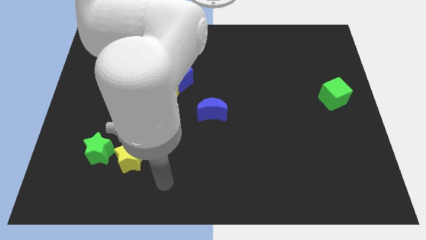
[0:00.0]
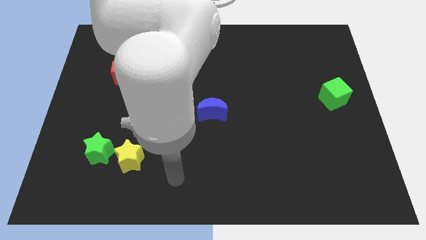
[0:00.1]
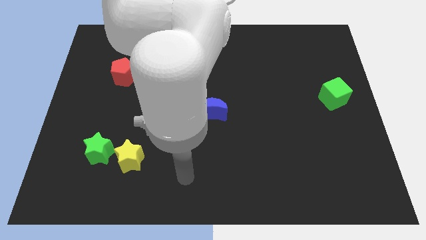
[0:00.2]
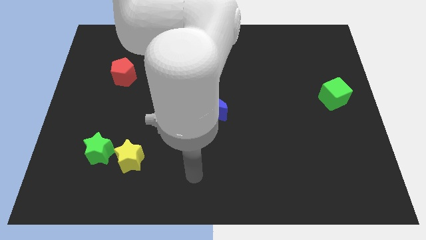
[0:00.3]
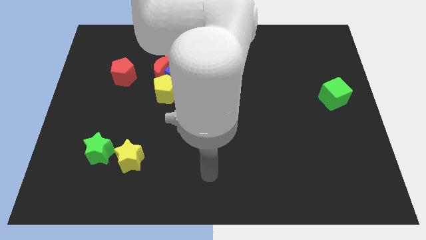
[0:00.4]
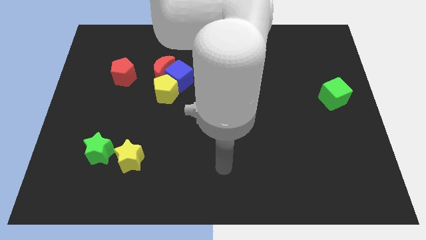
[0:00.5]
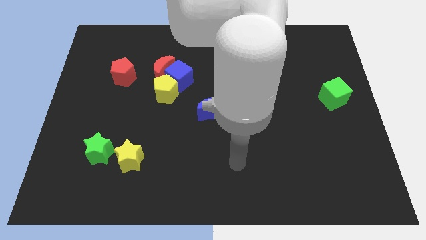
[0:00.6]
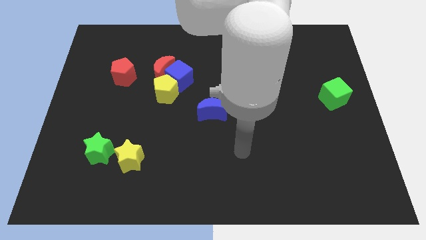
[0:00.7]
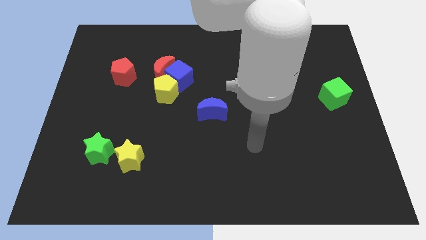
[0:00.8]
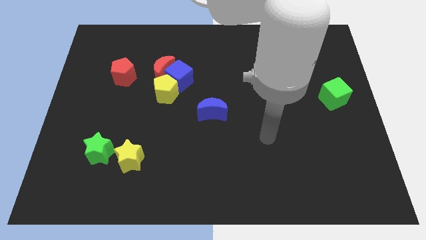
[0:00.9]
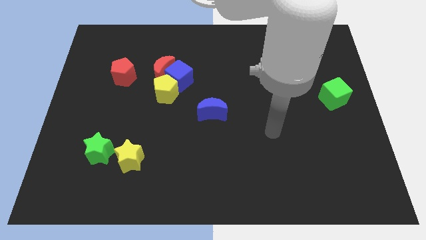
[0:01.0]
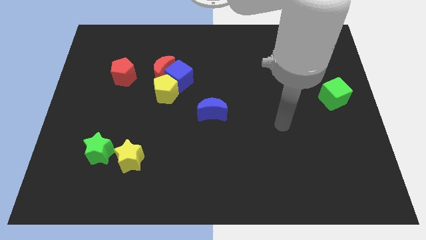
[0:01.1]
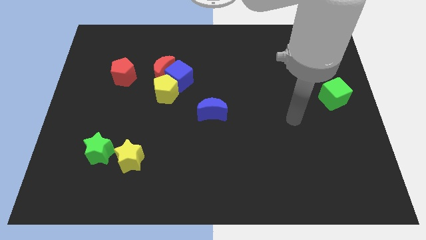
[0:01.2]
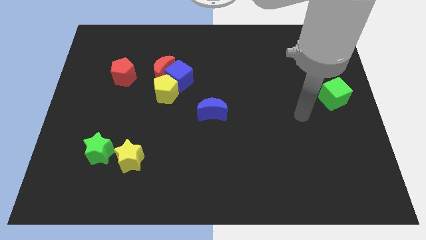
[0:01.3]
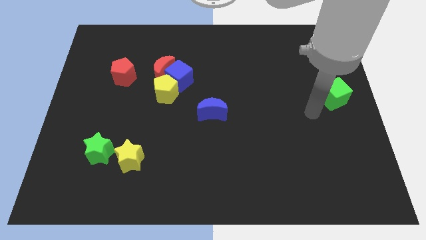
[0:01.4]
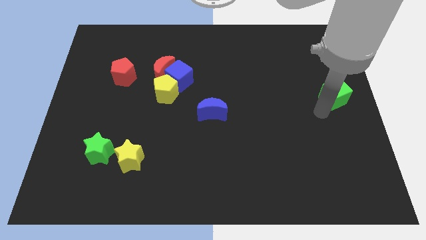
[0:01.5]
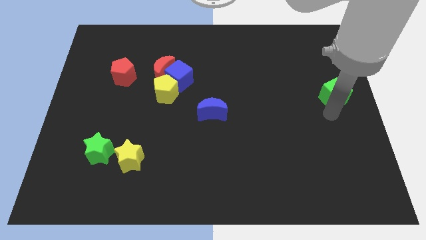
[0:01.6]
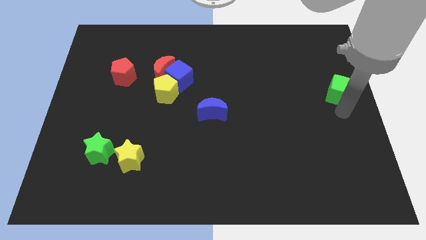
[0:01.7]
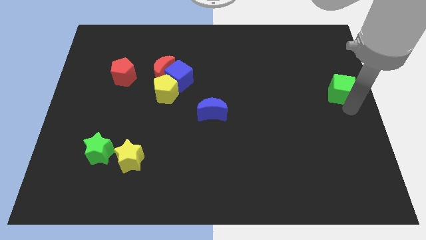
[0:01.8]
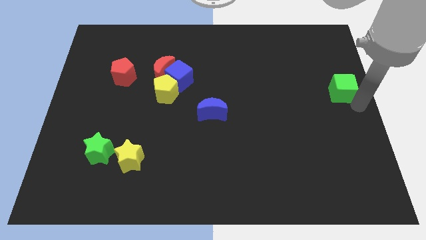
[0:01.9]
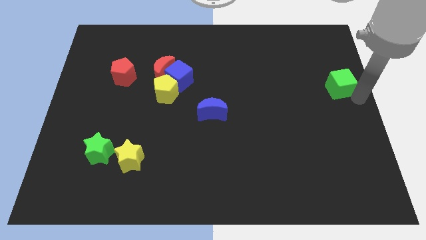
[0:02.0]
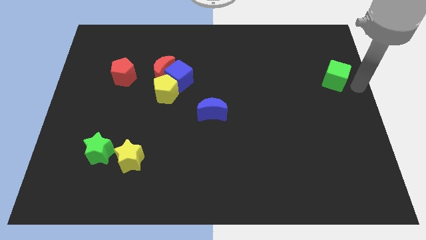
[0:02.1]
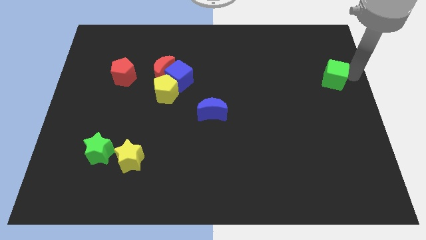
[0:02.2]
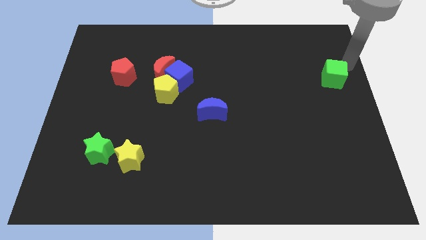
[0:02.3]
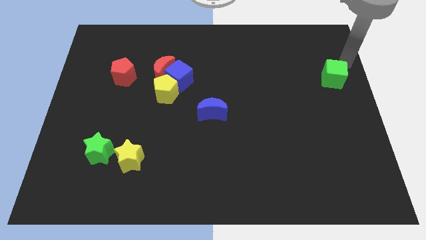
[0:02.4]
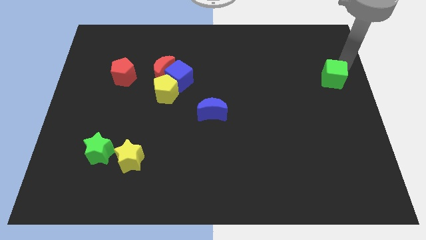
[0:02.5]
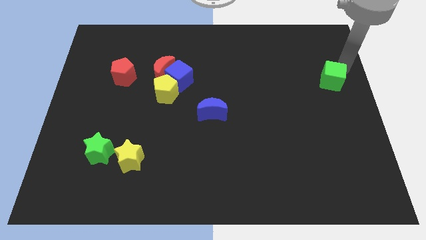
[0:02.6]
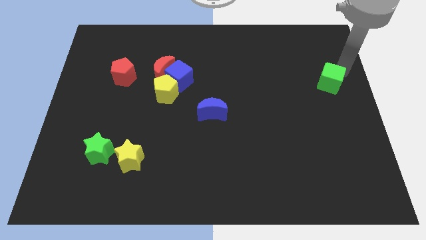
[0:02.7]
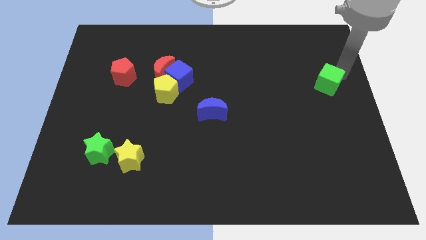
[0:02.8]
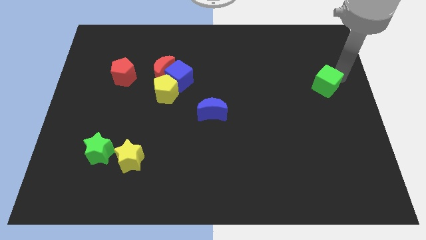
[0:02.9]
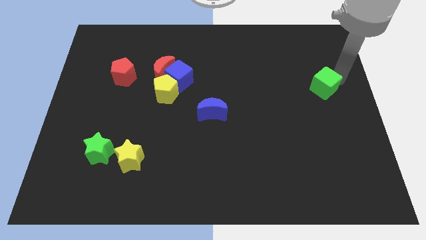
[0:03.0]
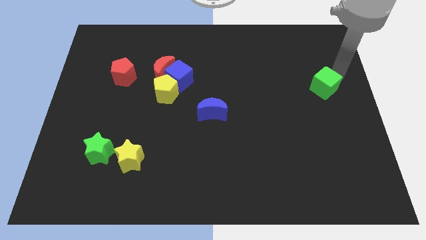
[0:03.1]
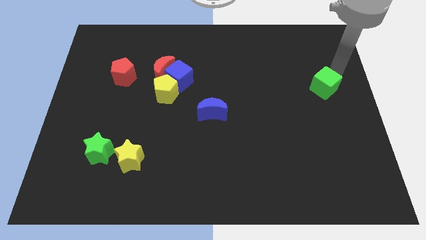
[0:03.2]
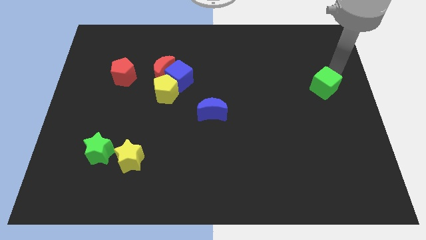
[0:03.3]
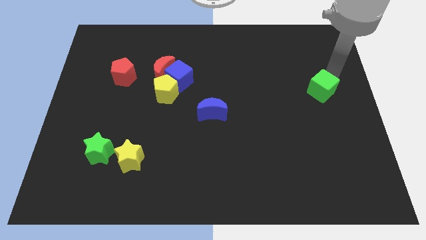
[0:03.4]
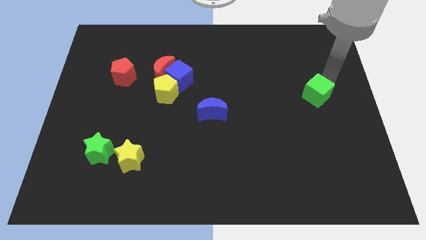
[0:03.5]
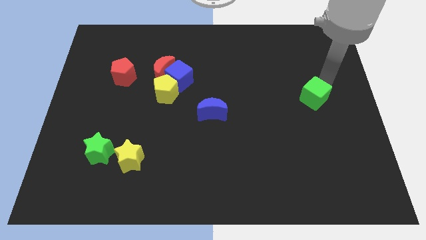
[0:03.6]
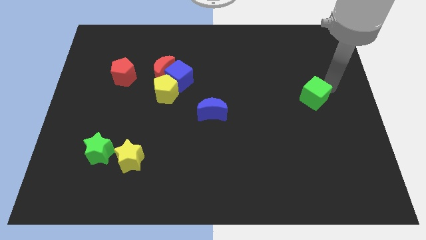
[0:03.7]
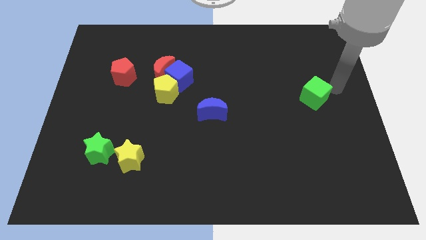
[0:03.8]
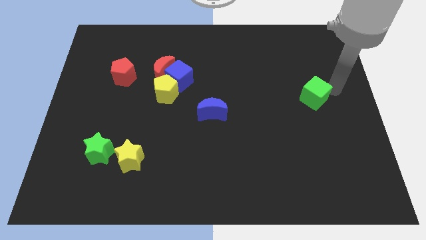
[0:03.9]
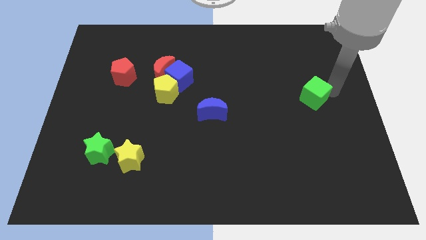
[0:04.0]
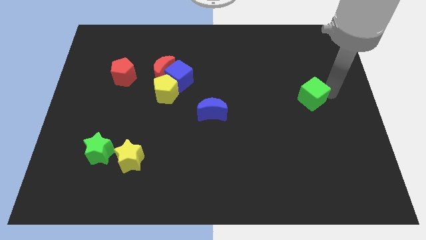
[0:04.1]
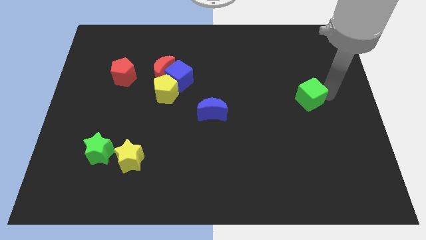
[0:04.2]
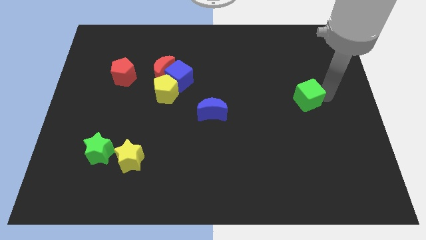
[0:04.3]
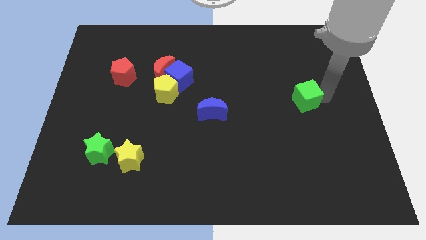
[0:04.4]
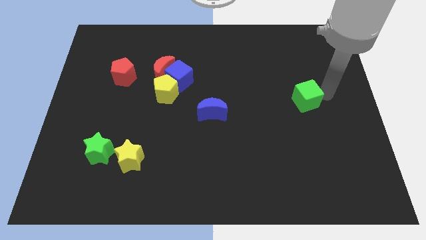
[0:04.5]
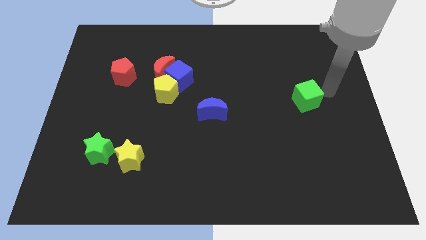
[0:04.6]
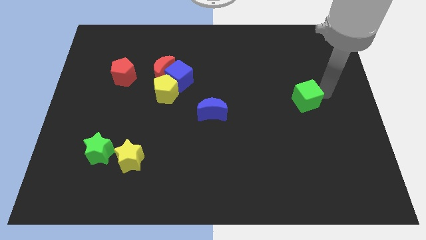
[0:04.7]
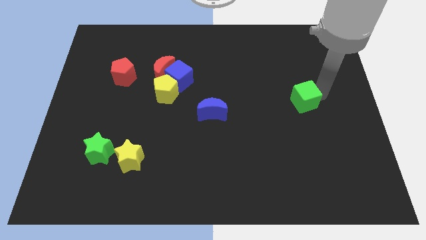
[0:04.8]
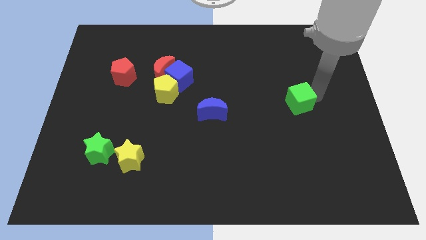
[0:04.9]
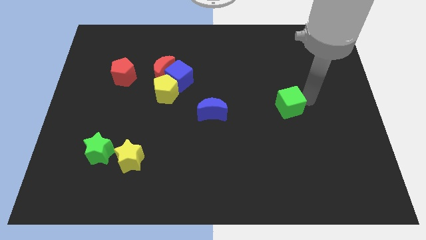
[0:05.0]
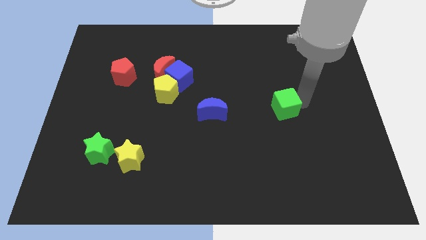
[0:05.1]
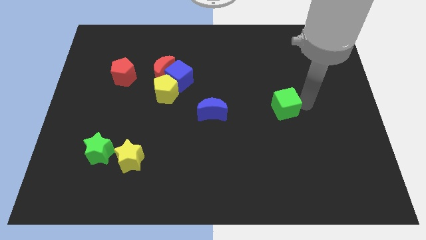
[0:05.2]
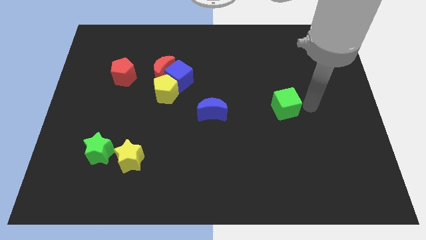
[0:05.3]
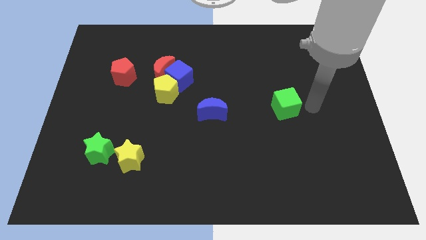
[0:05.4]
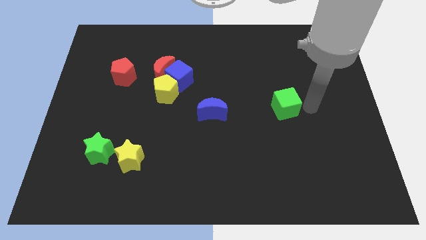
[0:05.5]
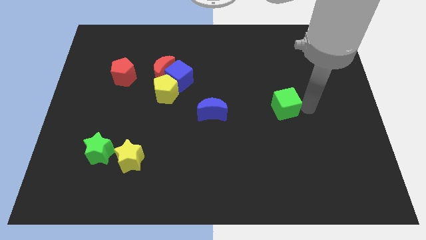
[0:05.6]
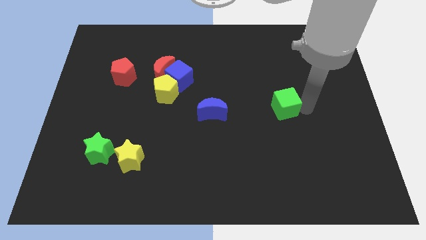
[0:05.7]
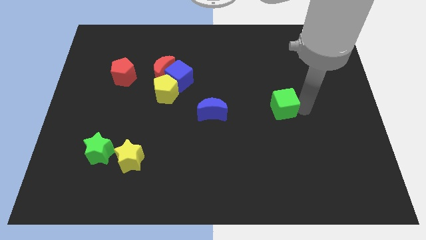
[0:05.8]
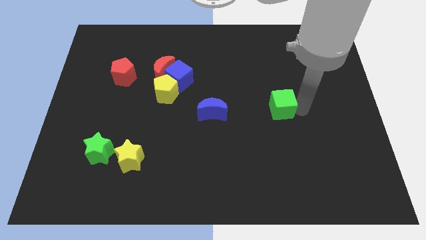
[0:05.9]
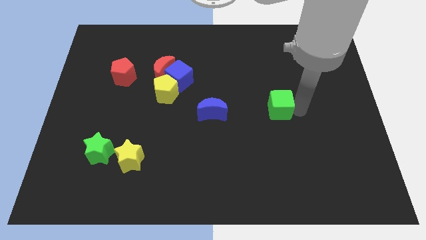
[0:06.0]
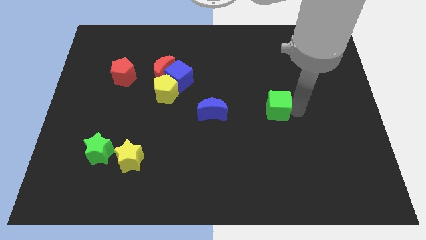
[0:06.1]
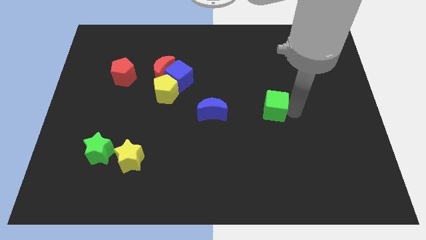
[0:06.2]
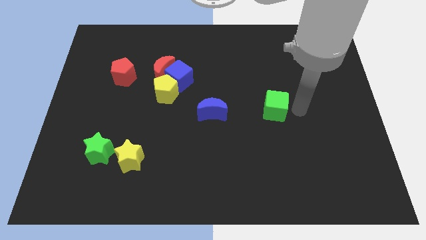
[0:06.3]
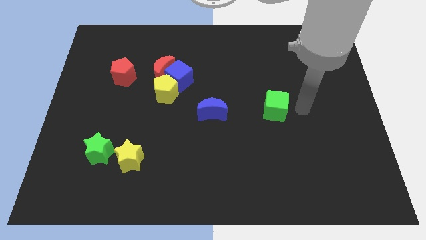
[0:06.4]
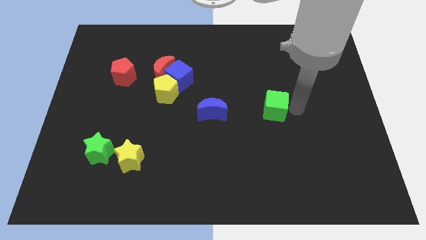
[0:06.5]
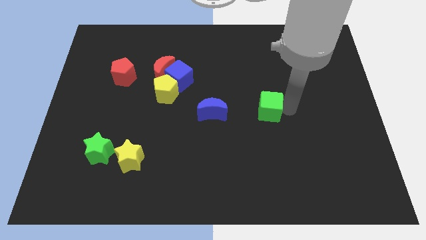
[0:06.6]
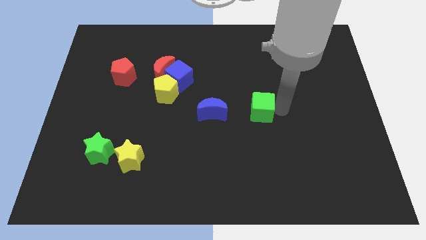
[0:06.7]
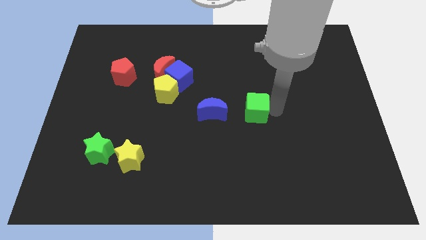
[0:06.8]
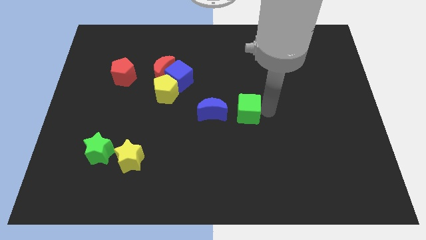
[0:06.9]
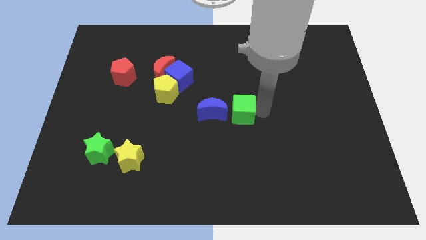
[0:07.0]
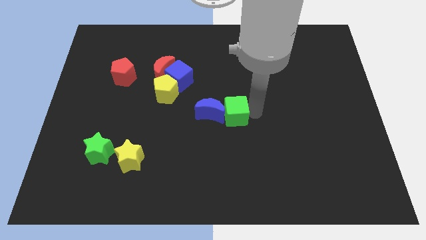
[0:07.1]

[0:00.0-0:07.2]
put the green cube to the blue moon
